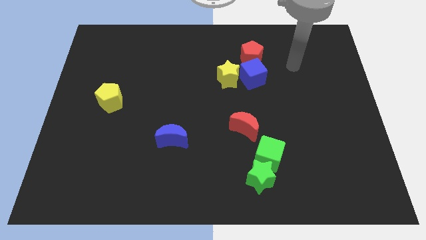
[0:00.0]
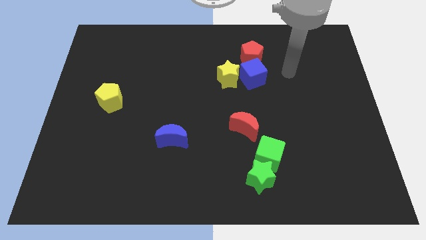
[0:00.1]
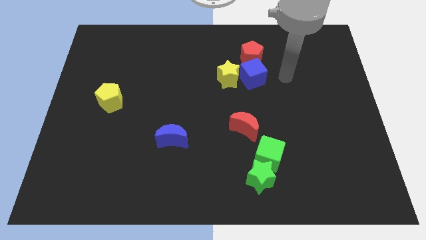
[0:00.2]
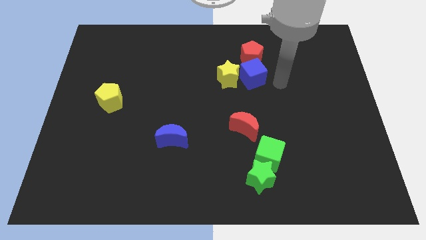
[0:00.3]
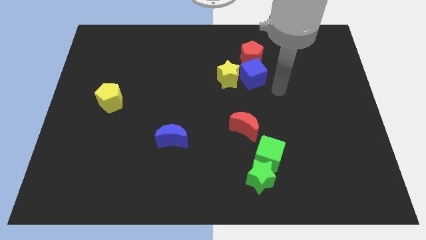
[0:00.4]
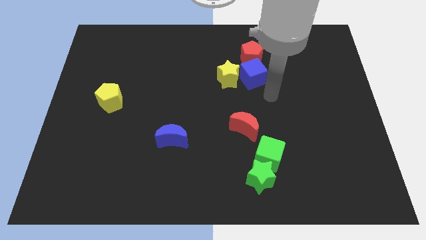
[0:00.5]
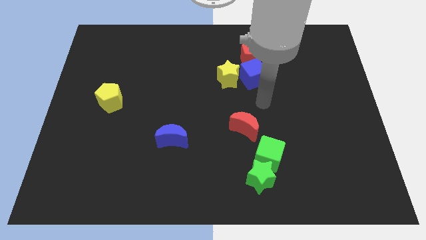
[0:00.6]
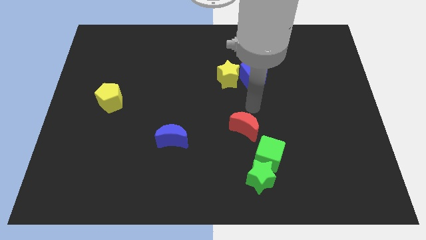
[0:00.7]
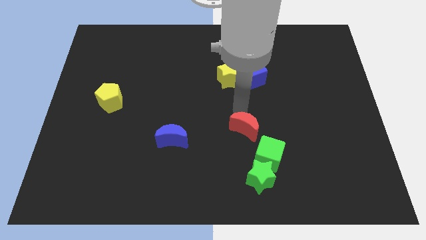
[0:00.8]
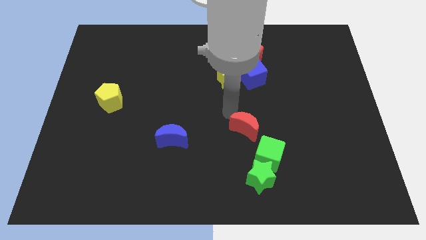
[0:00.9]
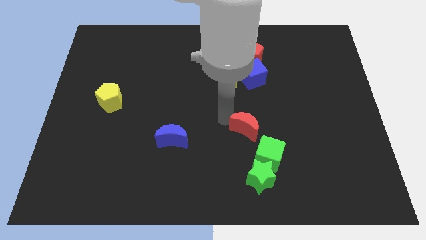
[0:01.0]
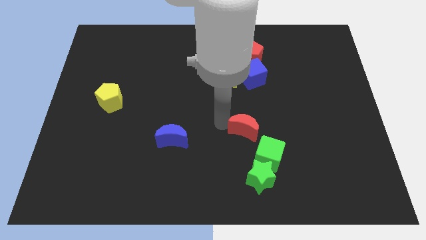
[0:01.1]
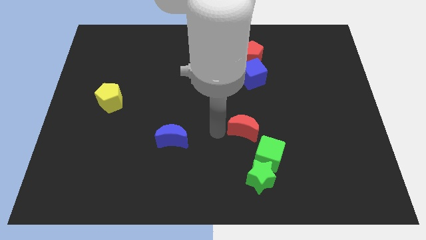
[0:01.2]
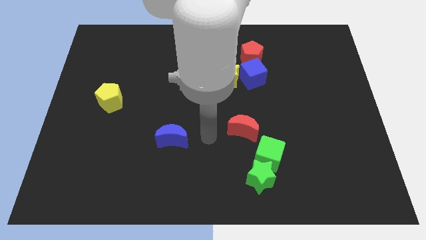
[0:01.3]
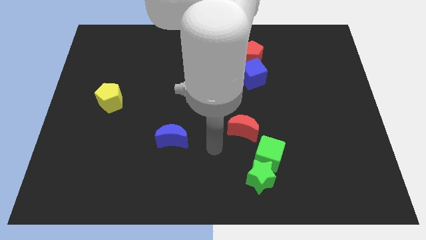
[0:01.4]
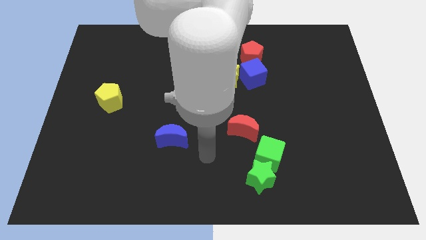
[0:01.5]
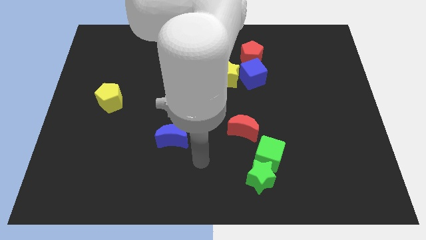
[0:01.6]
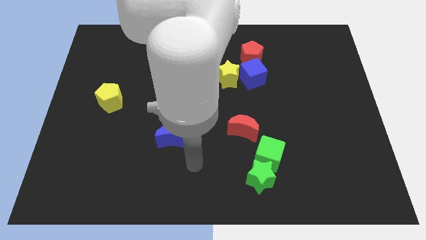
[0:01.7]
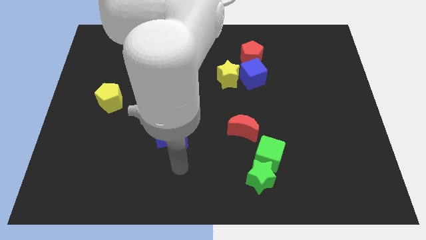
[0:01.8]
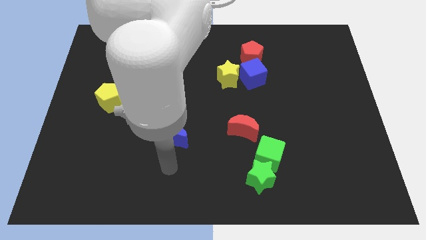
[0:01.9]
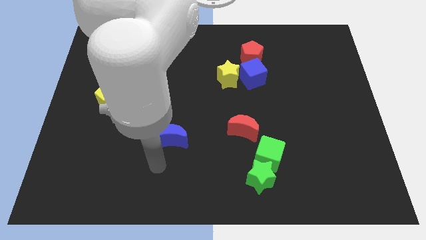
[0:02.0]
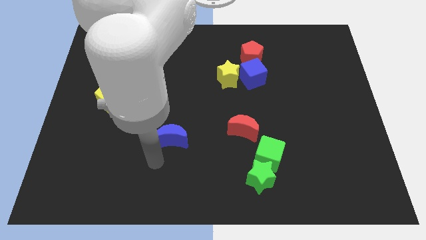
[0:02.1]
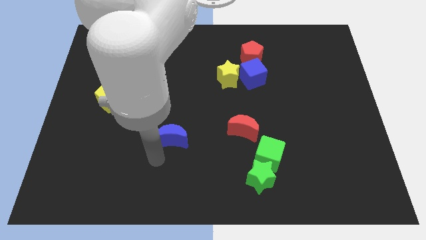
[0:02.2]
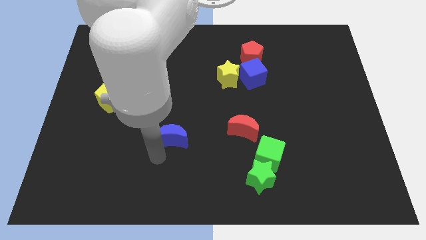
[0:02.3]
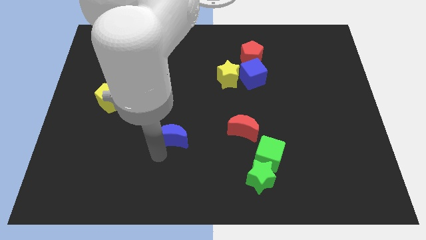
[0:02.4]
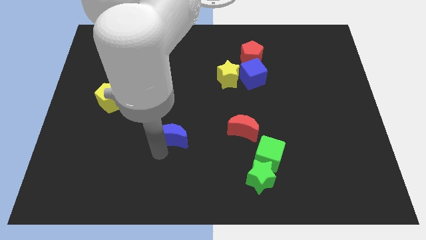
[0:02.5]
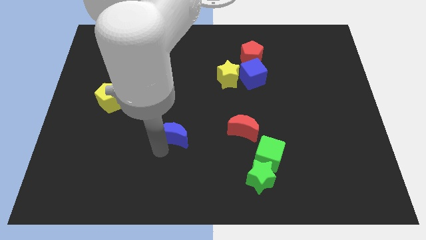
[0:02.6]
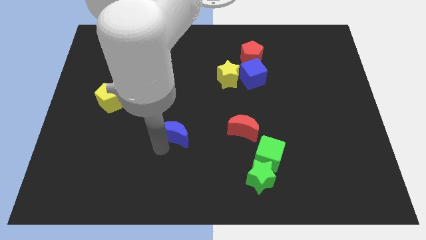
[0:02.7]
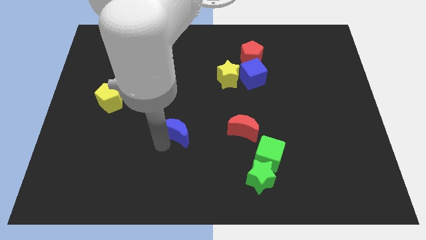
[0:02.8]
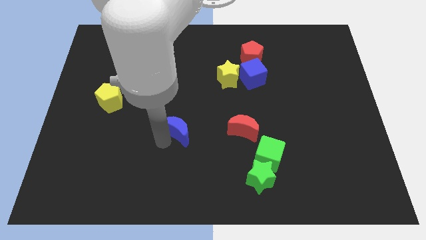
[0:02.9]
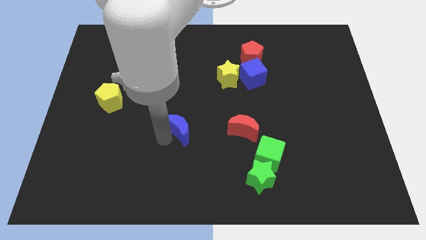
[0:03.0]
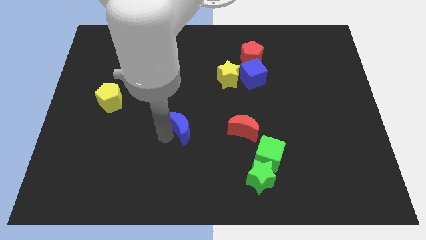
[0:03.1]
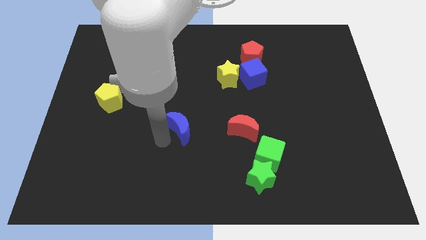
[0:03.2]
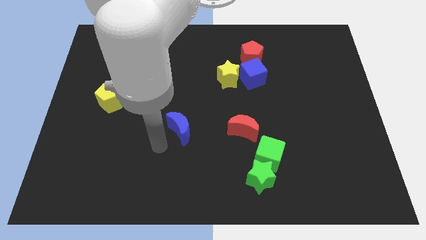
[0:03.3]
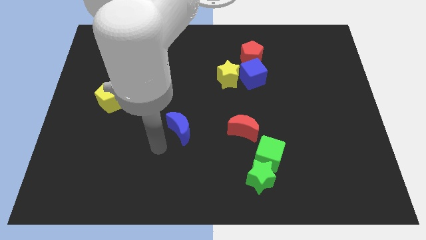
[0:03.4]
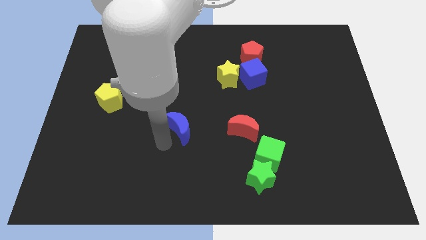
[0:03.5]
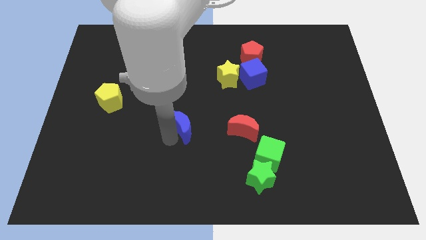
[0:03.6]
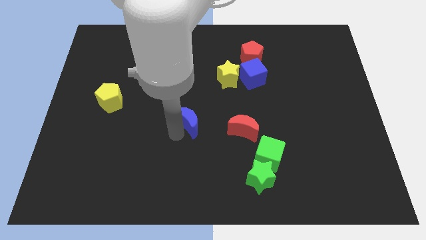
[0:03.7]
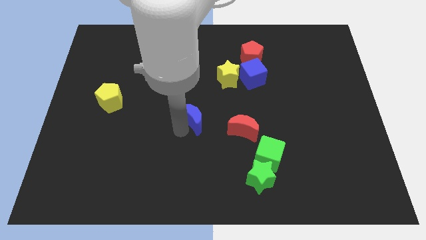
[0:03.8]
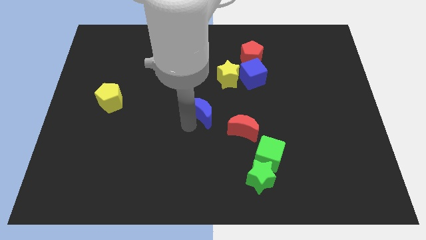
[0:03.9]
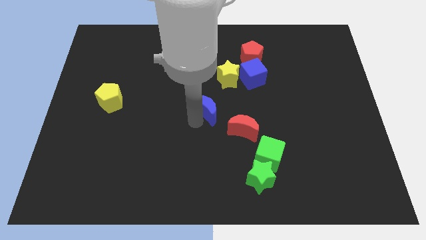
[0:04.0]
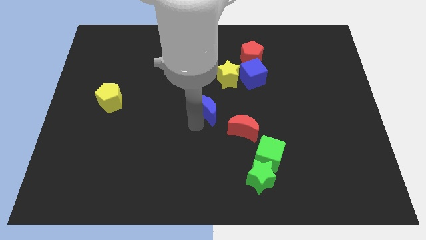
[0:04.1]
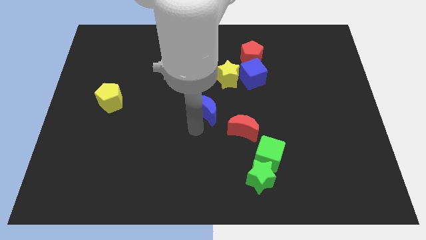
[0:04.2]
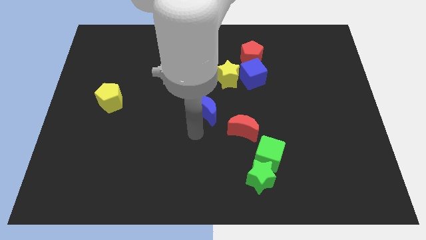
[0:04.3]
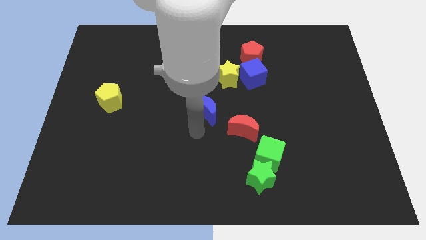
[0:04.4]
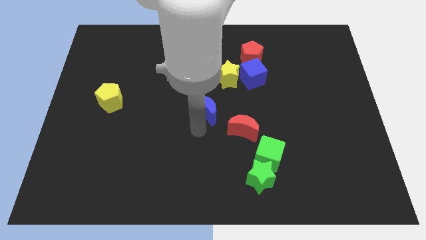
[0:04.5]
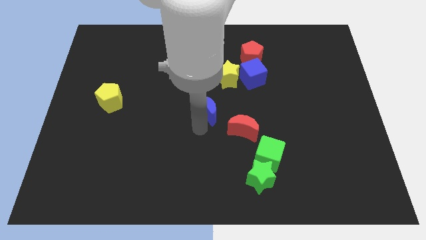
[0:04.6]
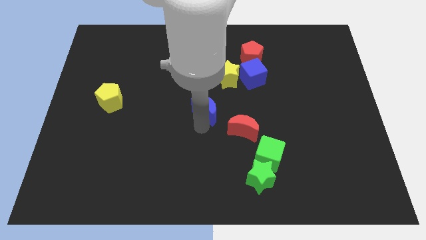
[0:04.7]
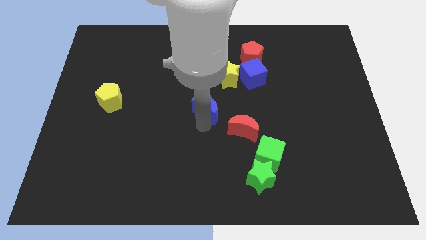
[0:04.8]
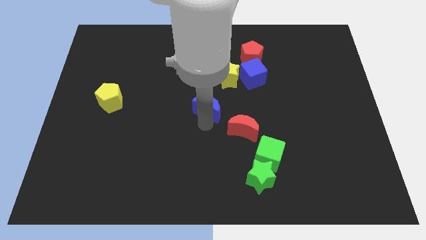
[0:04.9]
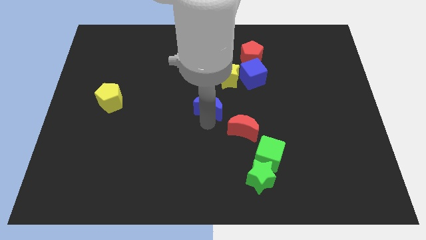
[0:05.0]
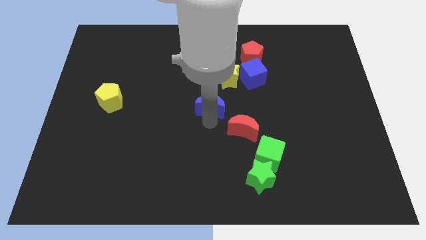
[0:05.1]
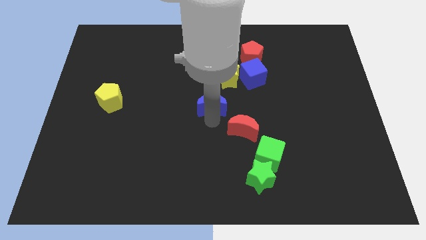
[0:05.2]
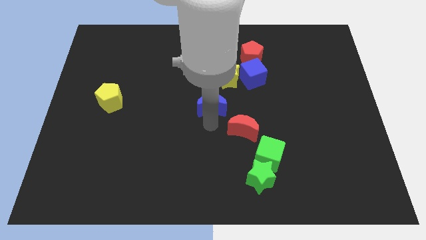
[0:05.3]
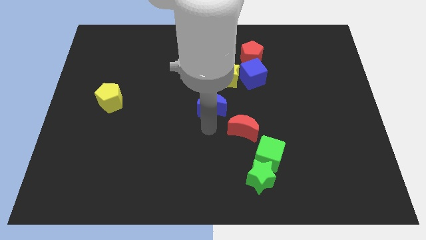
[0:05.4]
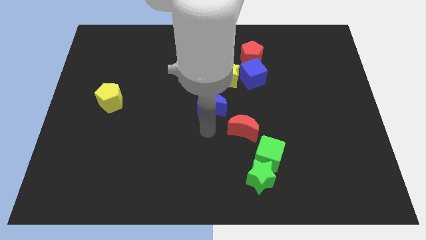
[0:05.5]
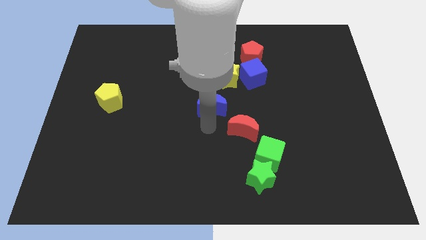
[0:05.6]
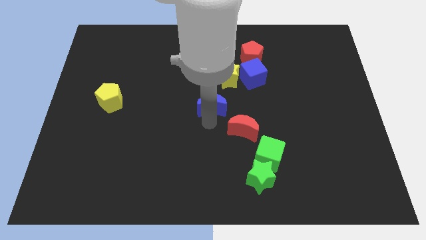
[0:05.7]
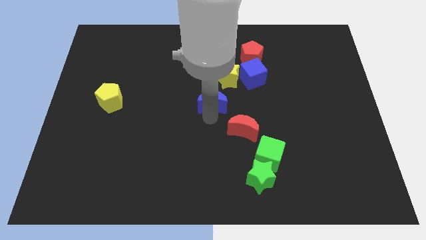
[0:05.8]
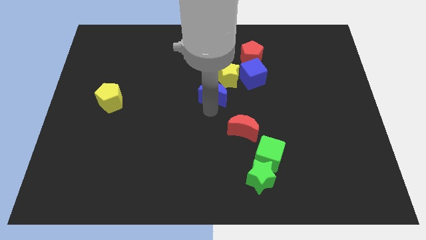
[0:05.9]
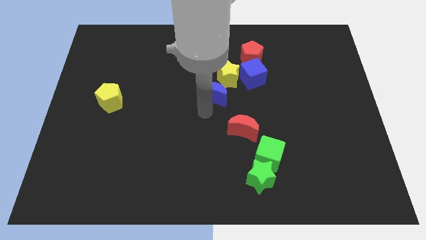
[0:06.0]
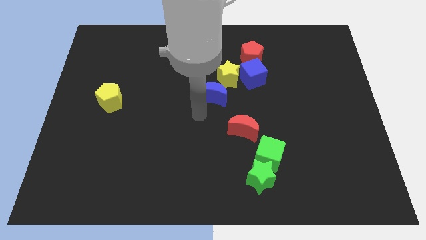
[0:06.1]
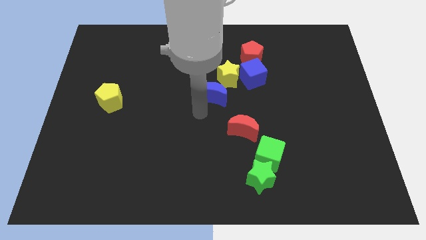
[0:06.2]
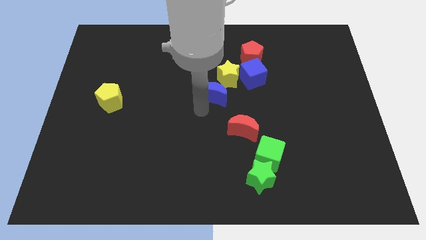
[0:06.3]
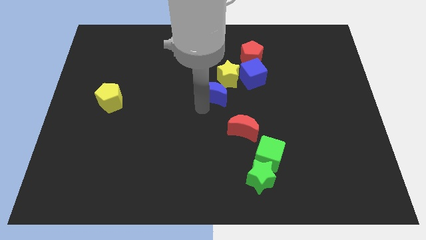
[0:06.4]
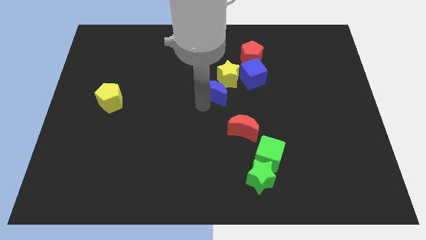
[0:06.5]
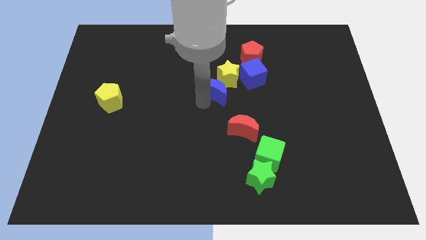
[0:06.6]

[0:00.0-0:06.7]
slide the blue moon to the yellow star

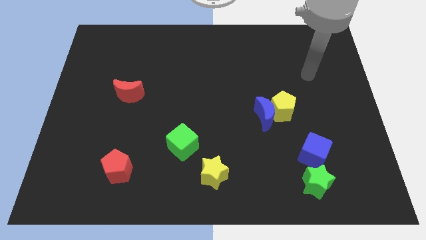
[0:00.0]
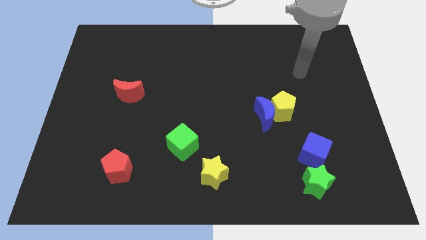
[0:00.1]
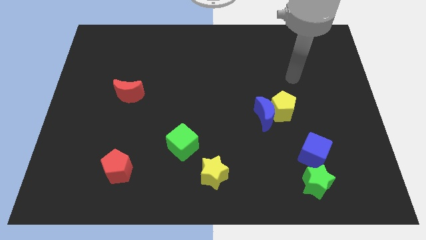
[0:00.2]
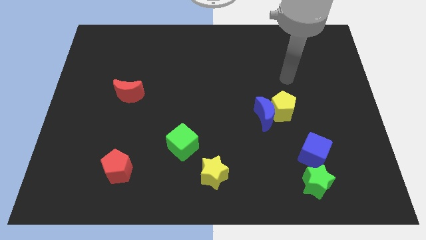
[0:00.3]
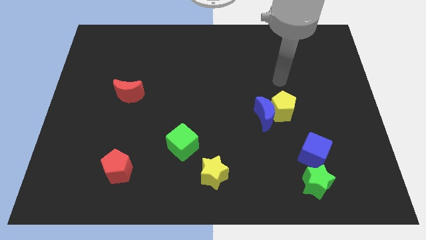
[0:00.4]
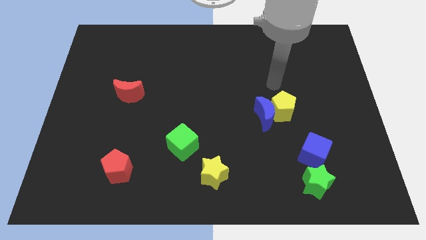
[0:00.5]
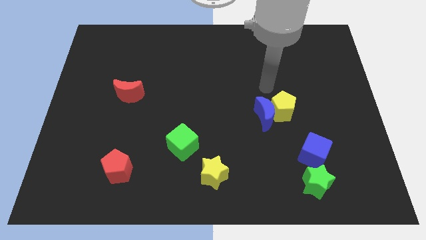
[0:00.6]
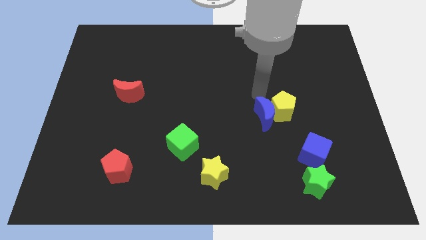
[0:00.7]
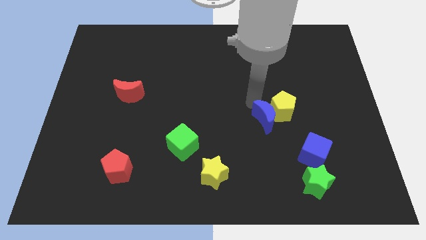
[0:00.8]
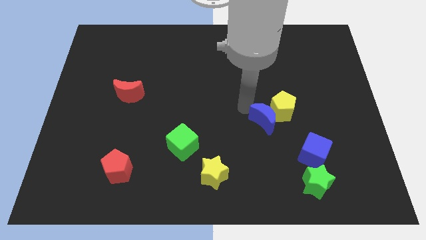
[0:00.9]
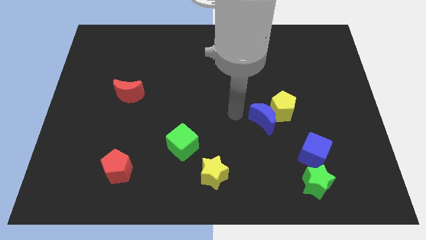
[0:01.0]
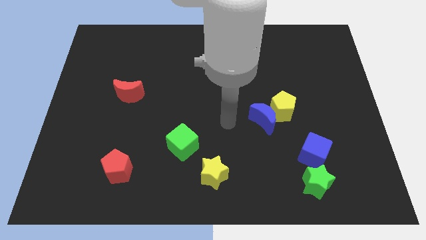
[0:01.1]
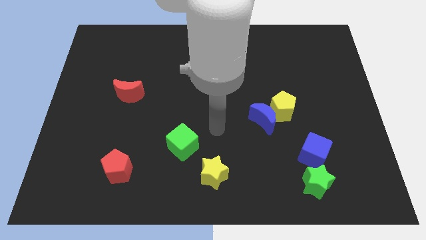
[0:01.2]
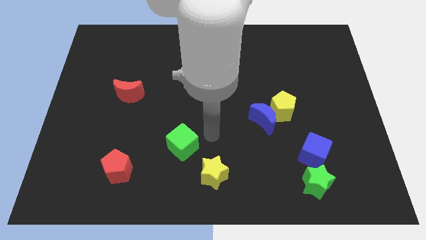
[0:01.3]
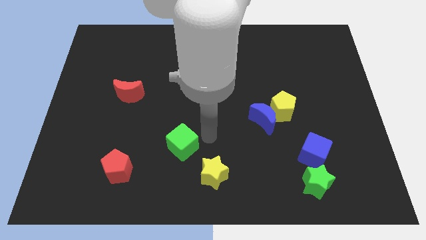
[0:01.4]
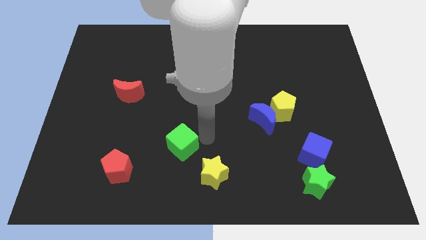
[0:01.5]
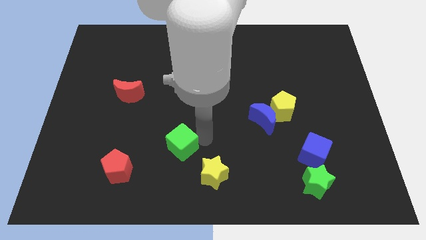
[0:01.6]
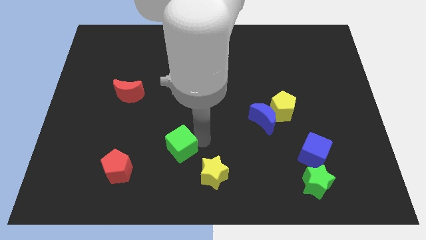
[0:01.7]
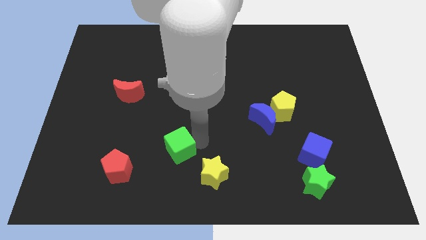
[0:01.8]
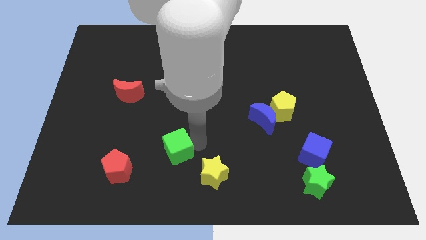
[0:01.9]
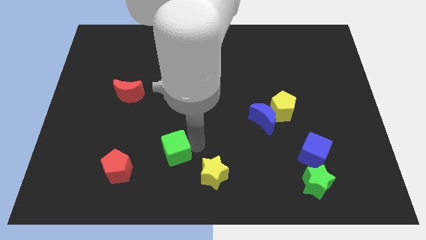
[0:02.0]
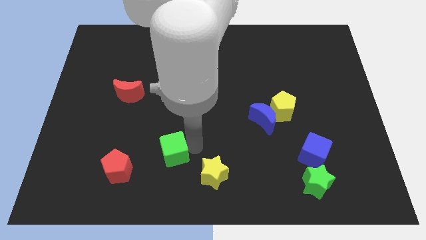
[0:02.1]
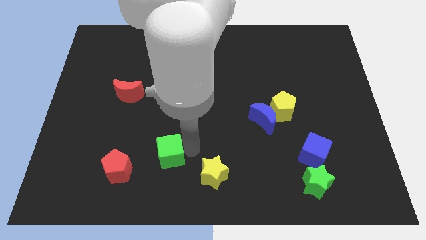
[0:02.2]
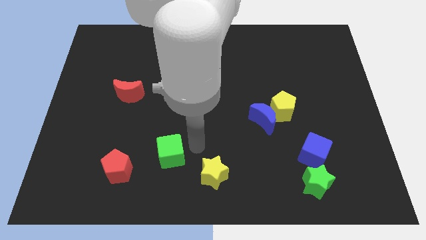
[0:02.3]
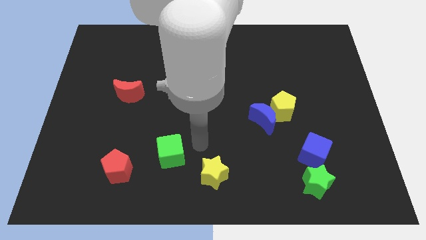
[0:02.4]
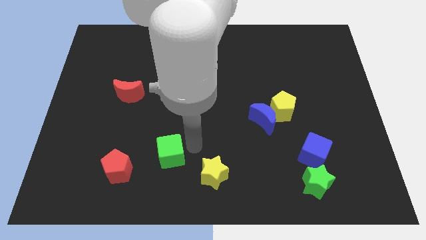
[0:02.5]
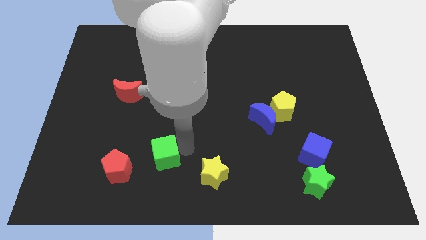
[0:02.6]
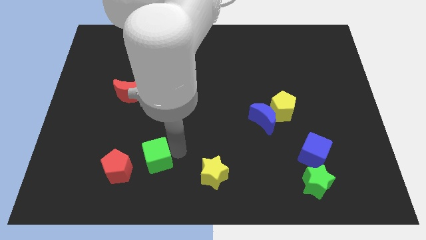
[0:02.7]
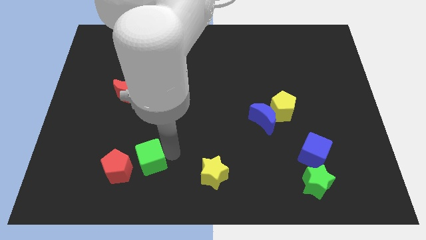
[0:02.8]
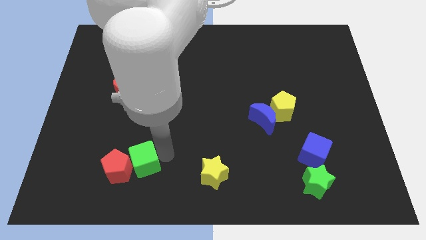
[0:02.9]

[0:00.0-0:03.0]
push the green cube next to the red pentagon
